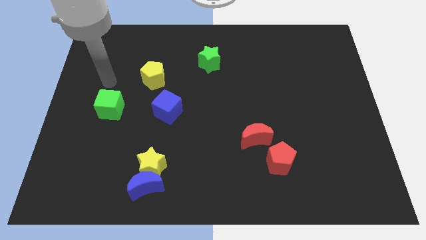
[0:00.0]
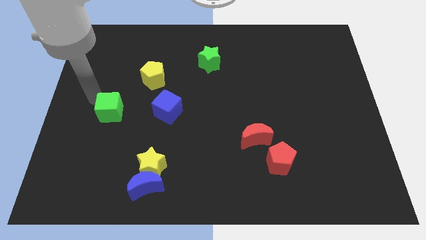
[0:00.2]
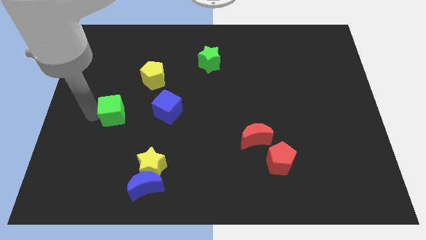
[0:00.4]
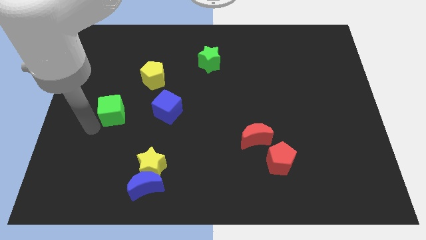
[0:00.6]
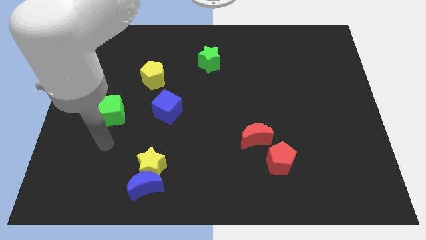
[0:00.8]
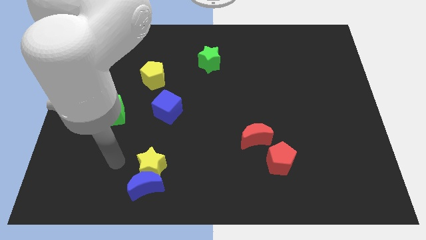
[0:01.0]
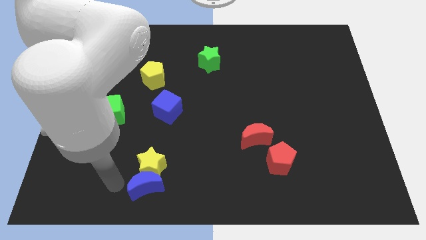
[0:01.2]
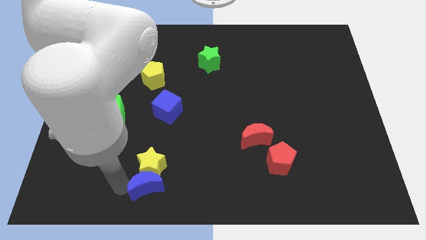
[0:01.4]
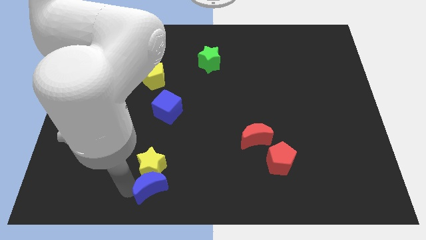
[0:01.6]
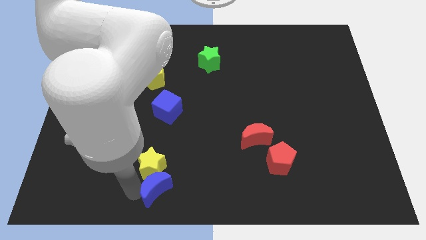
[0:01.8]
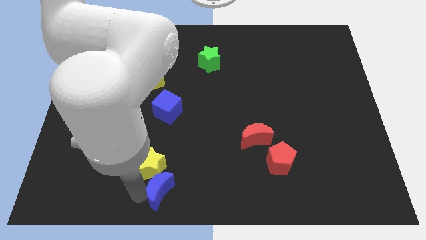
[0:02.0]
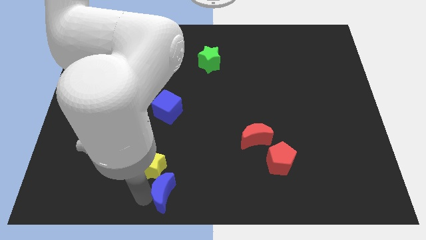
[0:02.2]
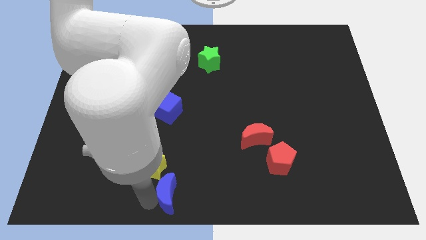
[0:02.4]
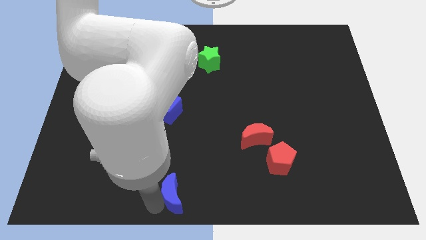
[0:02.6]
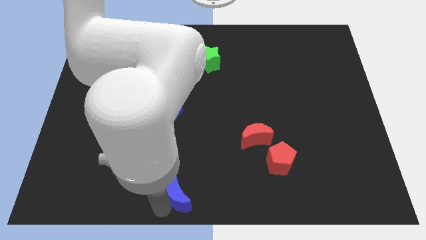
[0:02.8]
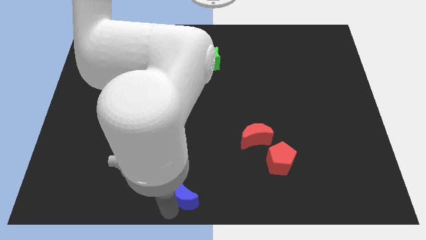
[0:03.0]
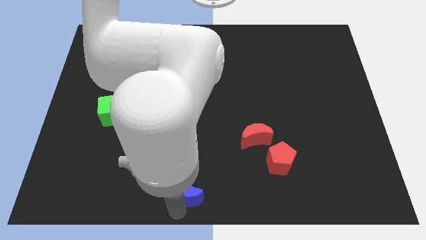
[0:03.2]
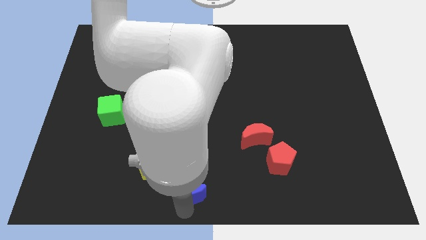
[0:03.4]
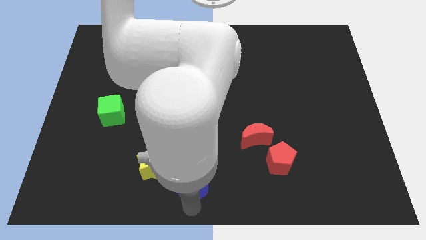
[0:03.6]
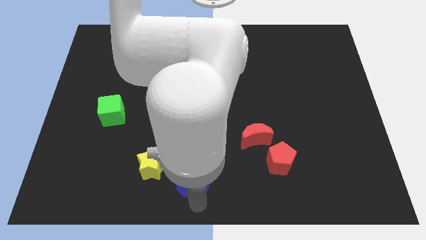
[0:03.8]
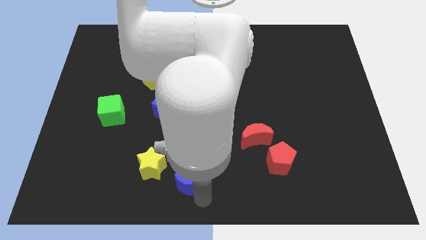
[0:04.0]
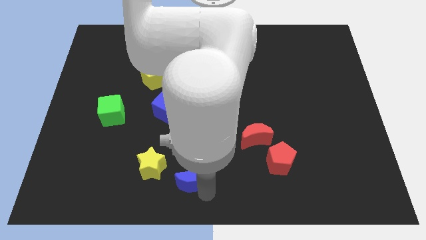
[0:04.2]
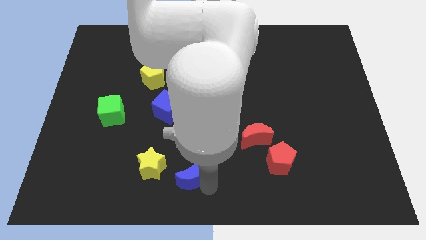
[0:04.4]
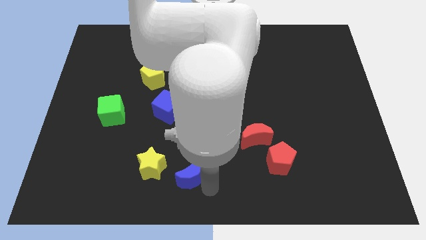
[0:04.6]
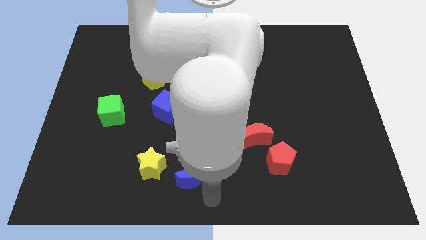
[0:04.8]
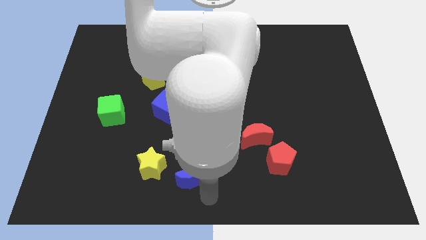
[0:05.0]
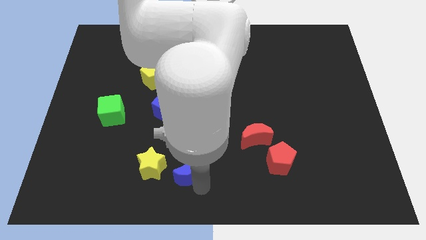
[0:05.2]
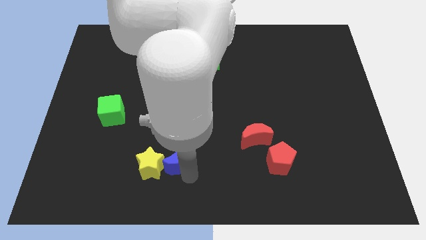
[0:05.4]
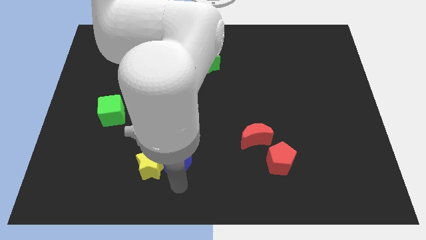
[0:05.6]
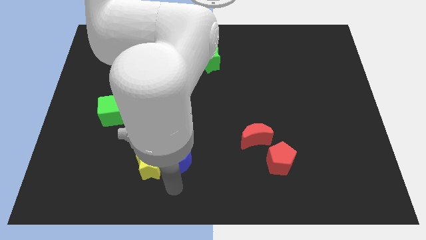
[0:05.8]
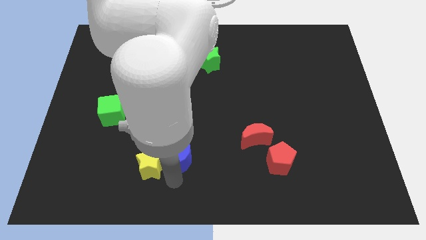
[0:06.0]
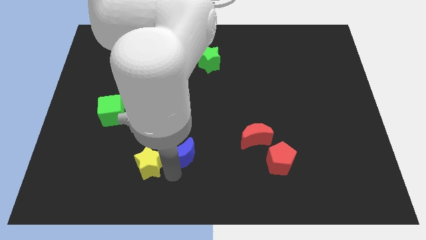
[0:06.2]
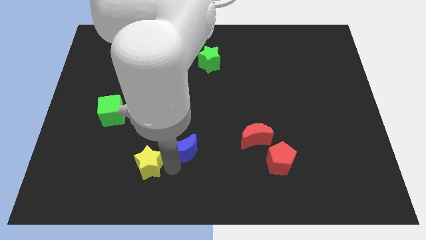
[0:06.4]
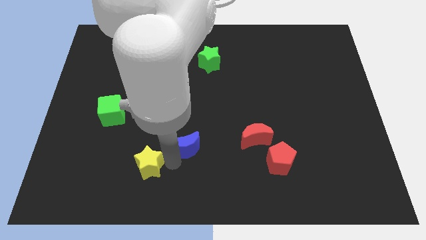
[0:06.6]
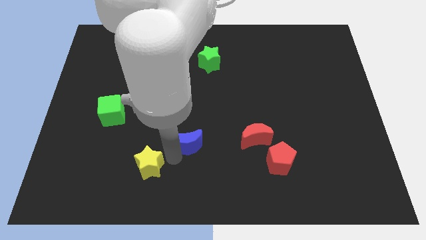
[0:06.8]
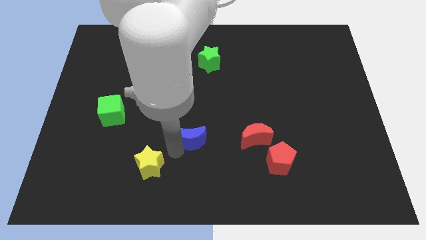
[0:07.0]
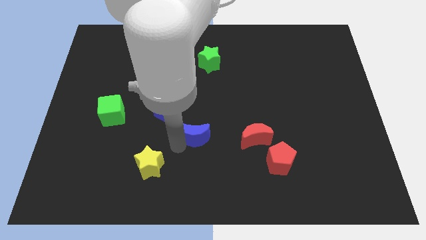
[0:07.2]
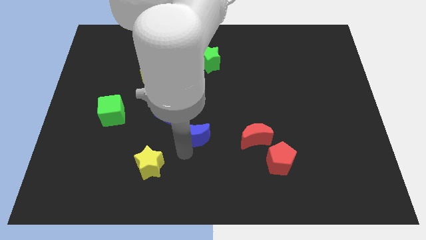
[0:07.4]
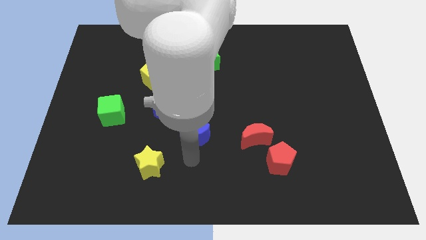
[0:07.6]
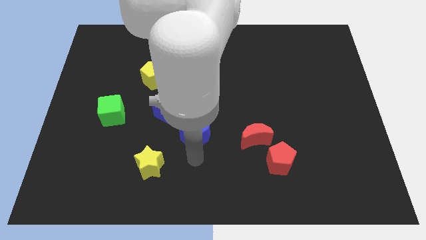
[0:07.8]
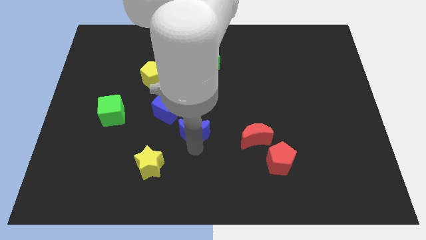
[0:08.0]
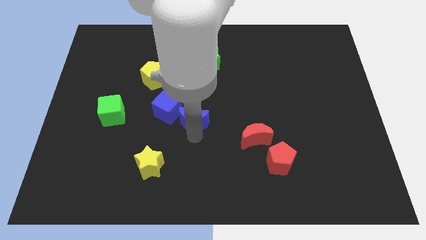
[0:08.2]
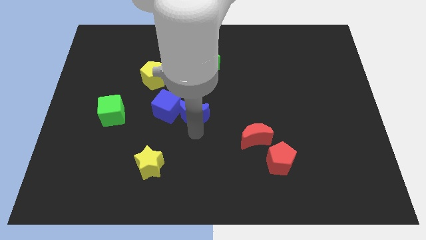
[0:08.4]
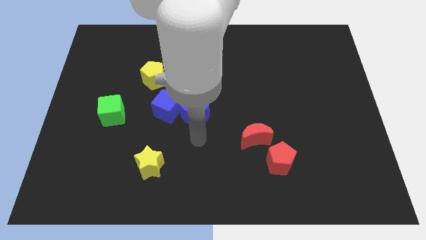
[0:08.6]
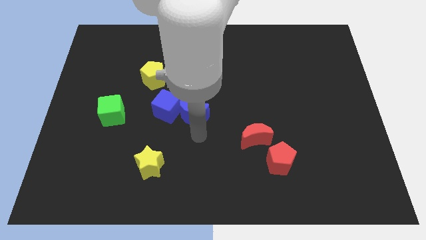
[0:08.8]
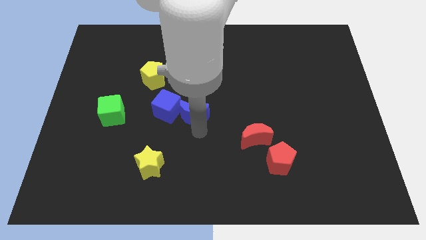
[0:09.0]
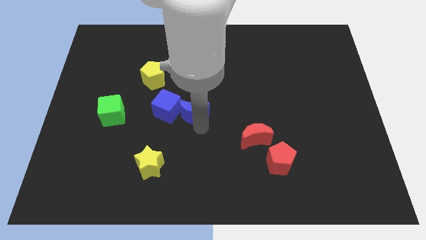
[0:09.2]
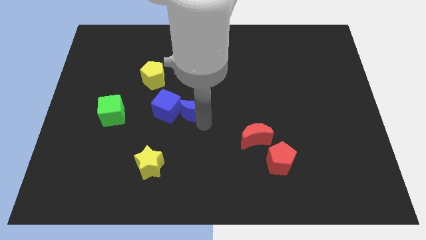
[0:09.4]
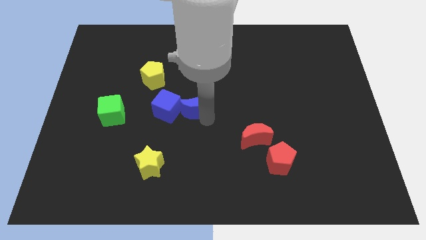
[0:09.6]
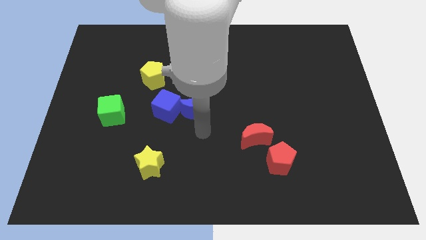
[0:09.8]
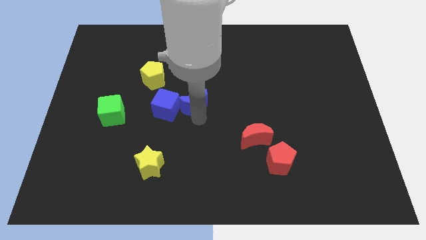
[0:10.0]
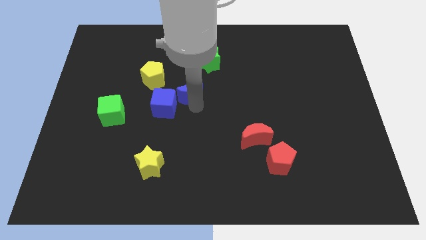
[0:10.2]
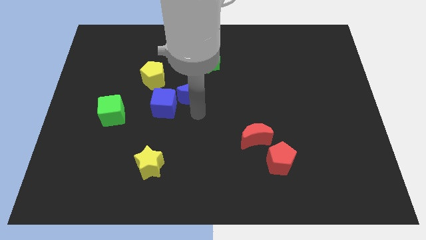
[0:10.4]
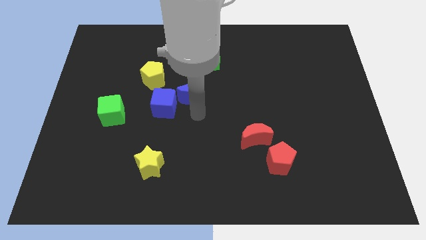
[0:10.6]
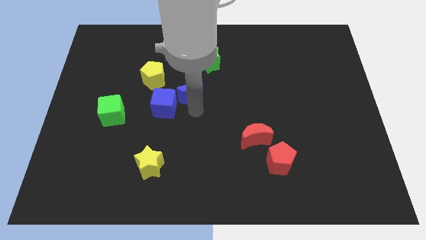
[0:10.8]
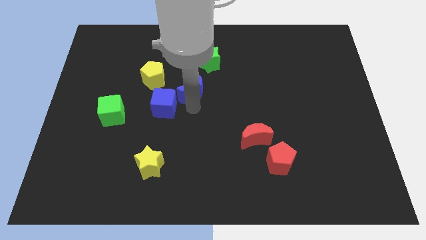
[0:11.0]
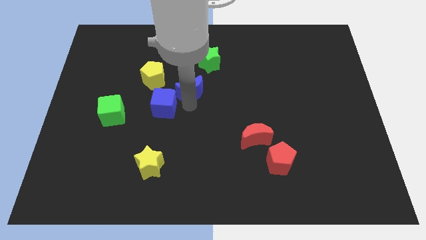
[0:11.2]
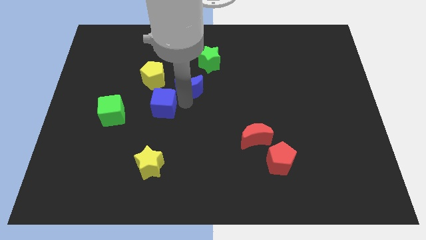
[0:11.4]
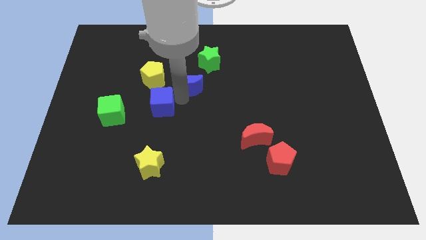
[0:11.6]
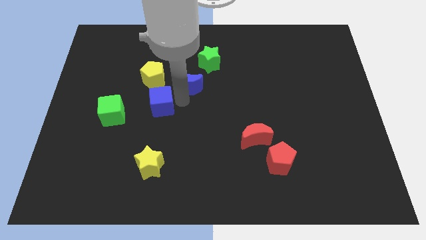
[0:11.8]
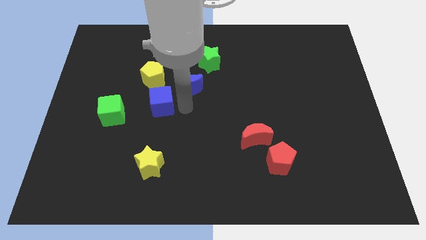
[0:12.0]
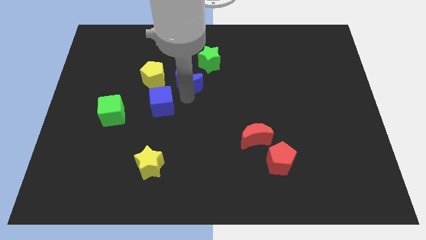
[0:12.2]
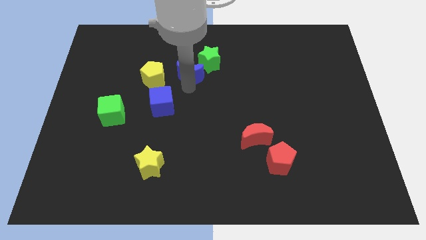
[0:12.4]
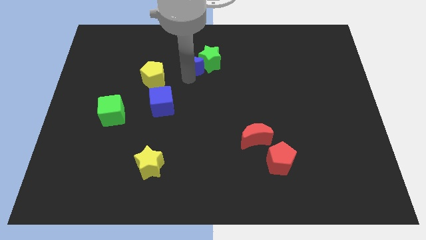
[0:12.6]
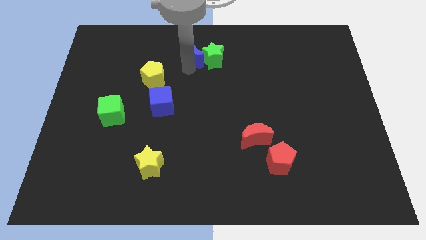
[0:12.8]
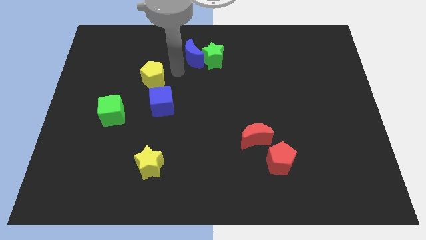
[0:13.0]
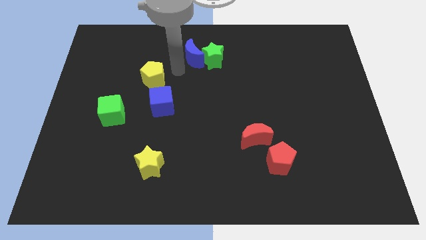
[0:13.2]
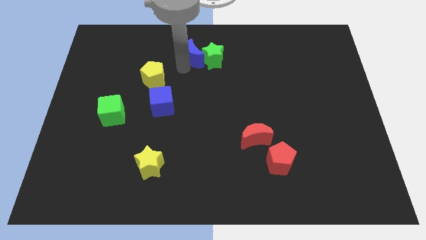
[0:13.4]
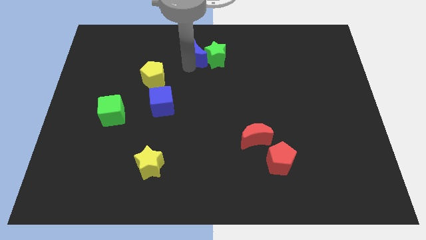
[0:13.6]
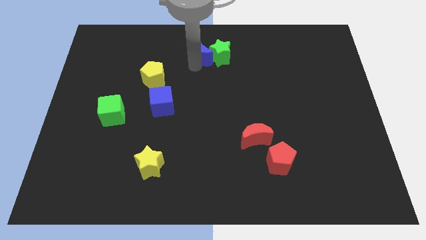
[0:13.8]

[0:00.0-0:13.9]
put the blue moon to the top side
